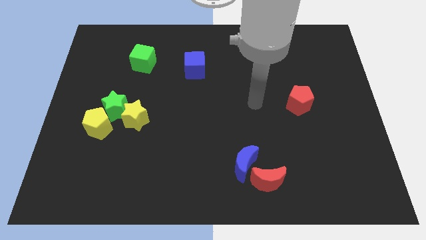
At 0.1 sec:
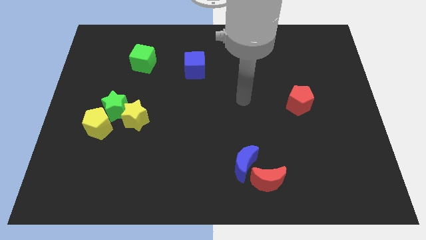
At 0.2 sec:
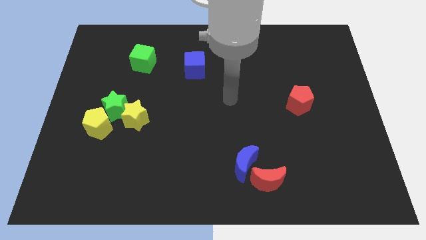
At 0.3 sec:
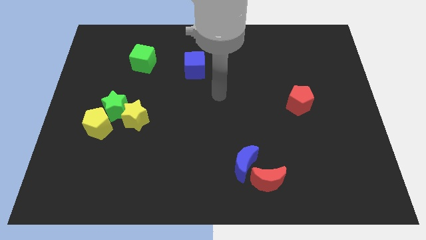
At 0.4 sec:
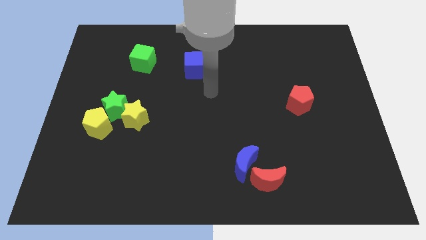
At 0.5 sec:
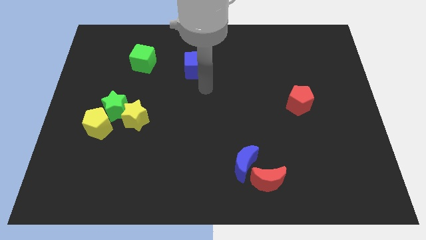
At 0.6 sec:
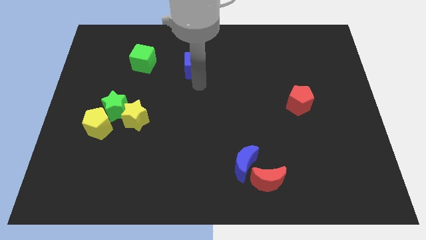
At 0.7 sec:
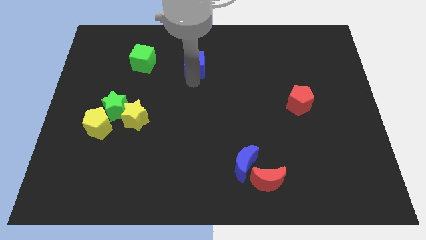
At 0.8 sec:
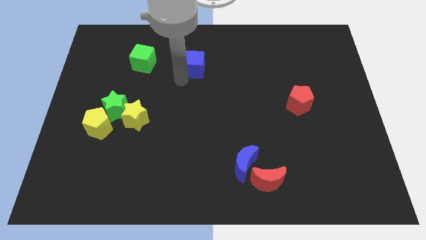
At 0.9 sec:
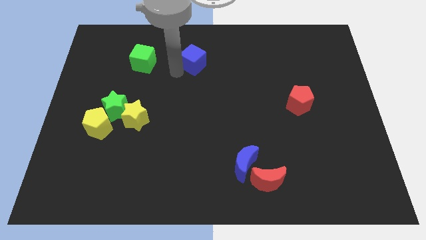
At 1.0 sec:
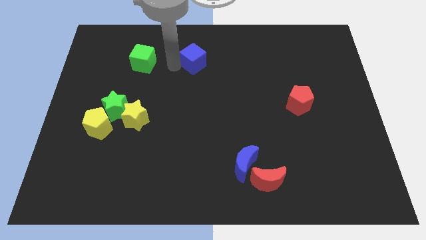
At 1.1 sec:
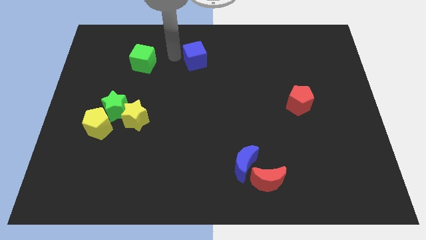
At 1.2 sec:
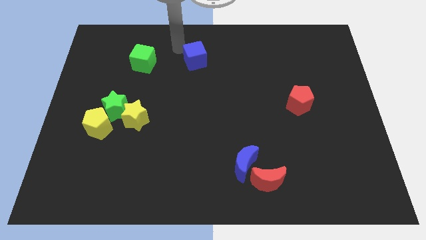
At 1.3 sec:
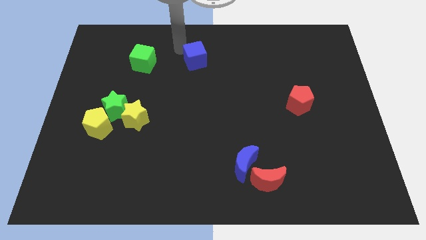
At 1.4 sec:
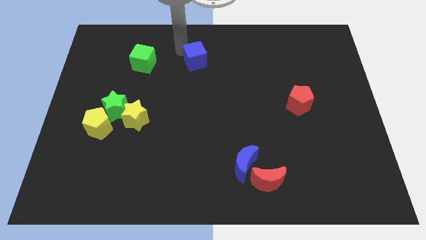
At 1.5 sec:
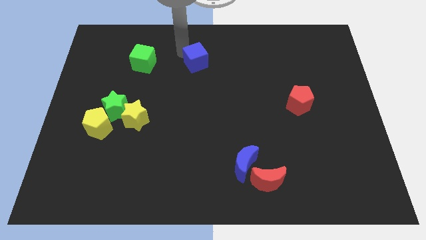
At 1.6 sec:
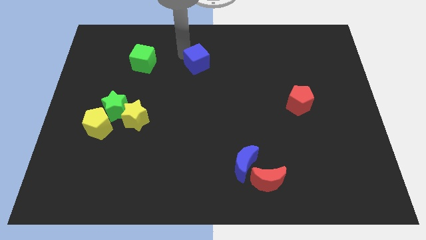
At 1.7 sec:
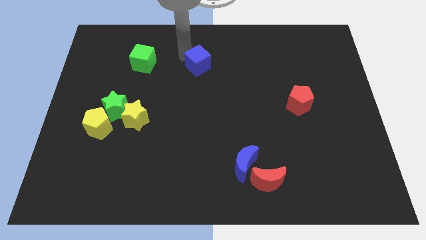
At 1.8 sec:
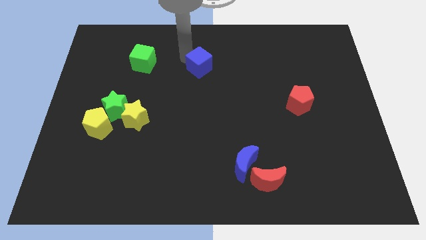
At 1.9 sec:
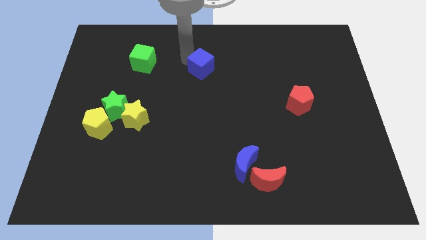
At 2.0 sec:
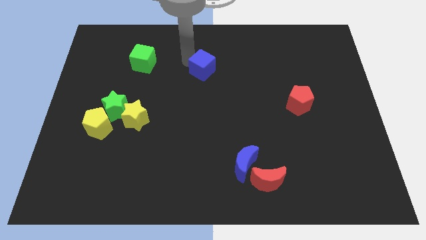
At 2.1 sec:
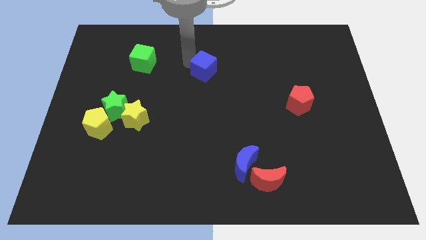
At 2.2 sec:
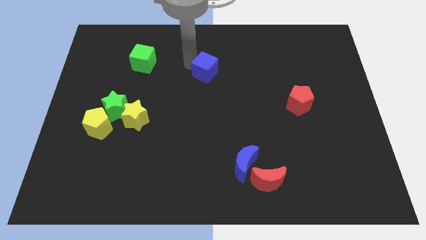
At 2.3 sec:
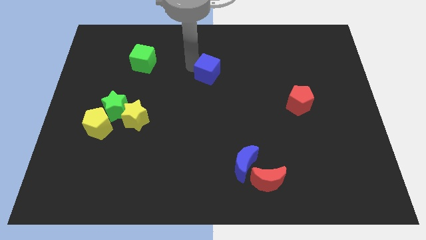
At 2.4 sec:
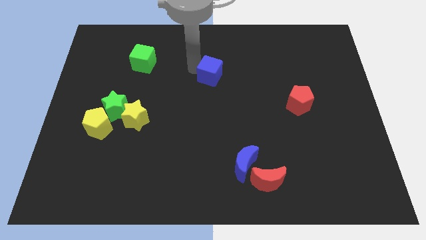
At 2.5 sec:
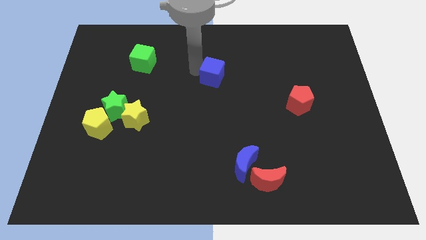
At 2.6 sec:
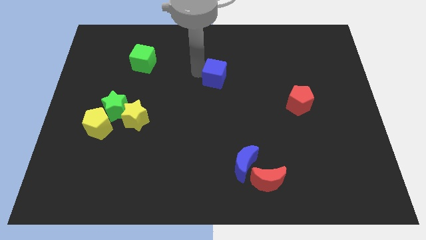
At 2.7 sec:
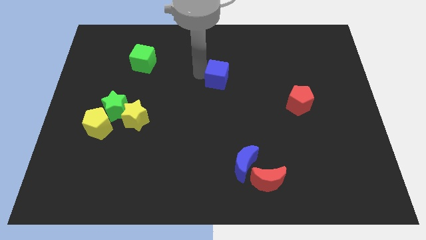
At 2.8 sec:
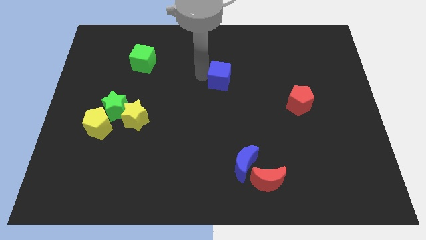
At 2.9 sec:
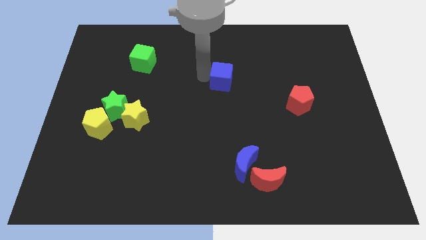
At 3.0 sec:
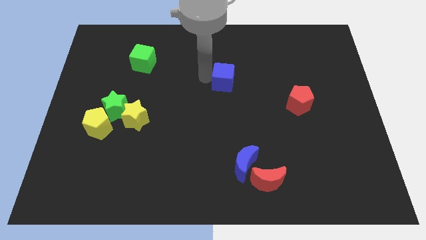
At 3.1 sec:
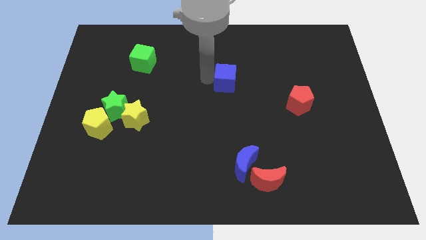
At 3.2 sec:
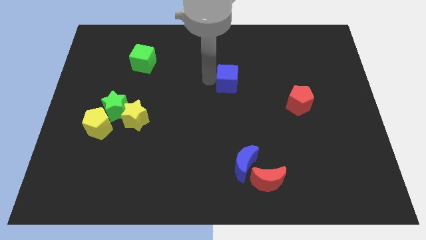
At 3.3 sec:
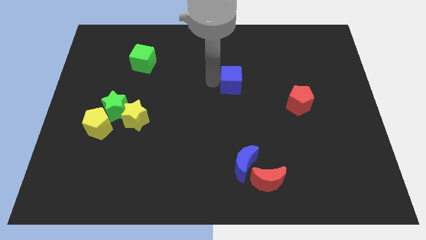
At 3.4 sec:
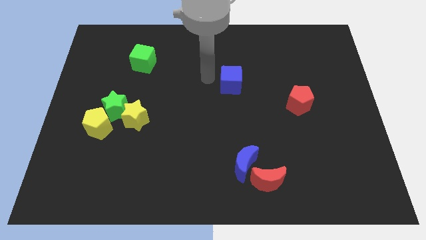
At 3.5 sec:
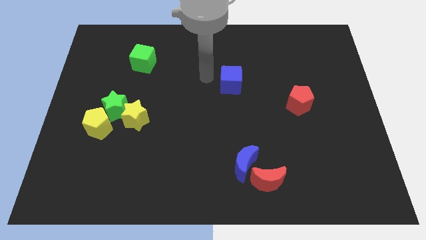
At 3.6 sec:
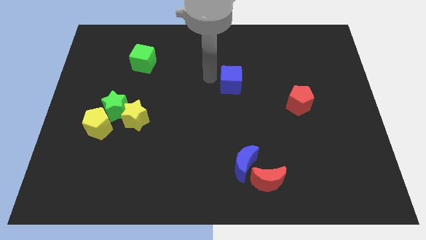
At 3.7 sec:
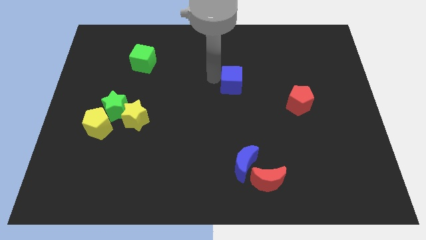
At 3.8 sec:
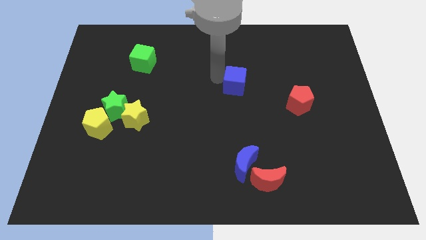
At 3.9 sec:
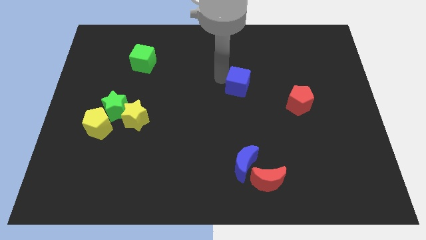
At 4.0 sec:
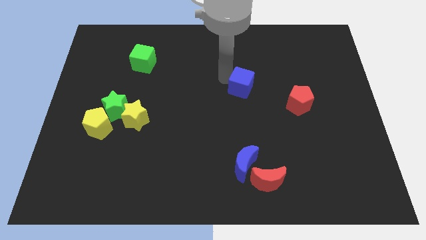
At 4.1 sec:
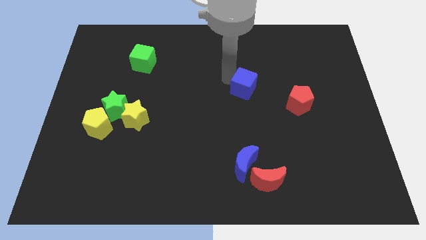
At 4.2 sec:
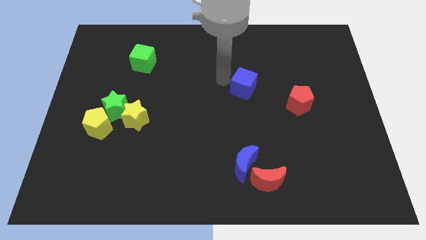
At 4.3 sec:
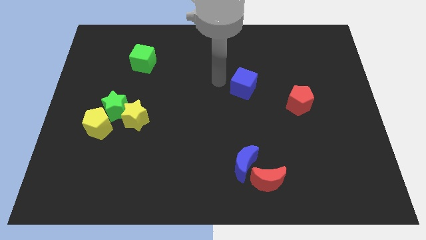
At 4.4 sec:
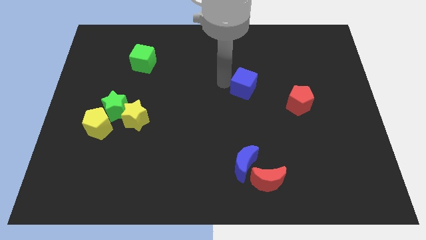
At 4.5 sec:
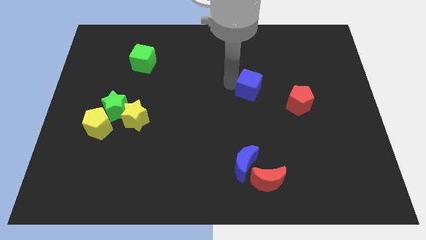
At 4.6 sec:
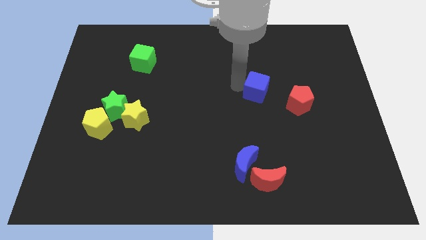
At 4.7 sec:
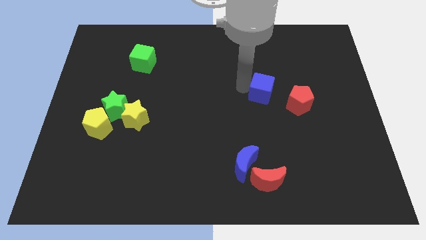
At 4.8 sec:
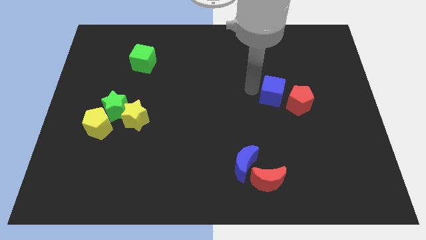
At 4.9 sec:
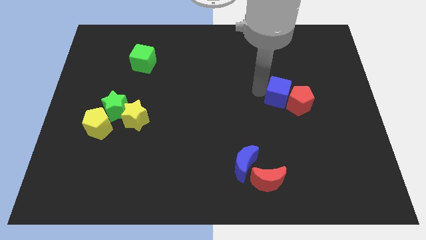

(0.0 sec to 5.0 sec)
slide the blue cube next to the red pentagon

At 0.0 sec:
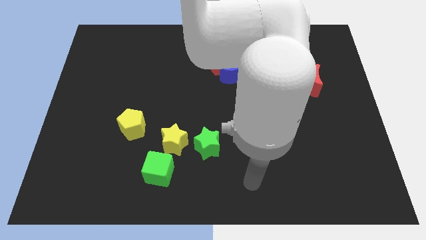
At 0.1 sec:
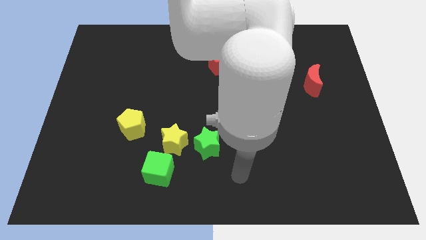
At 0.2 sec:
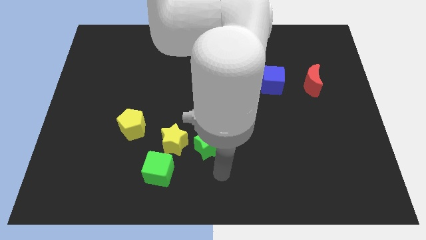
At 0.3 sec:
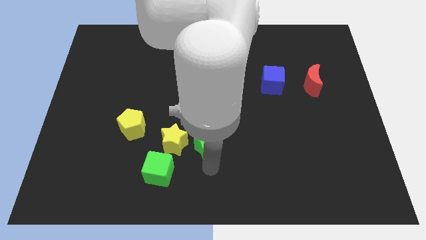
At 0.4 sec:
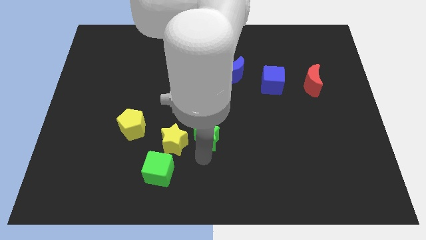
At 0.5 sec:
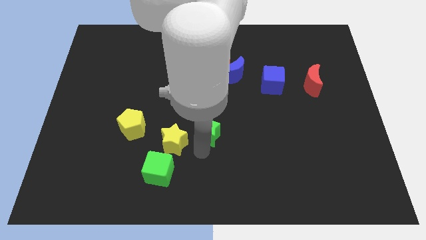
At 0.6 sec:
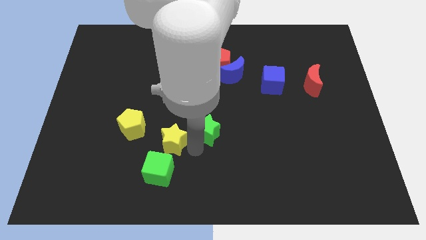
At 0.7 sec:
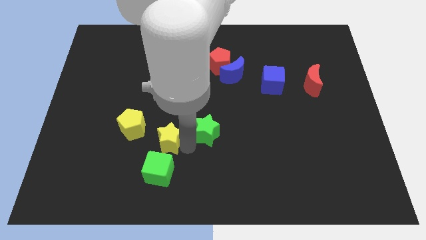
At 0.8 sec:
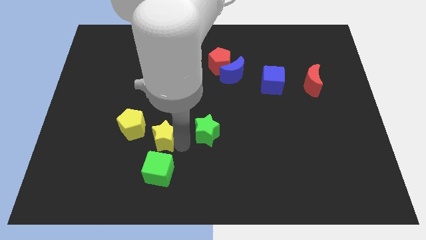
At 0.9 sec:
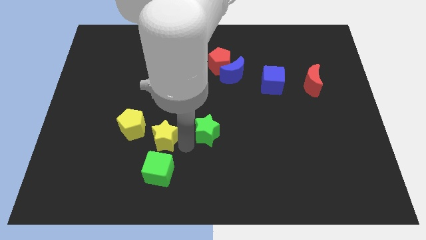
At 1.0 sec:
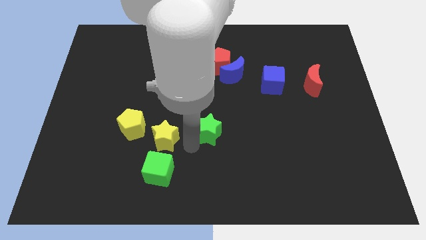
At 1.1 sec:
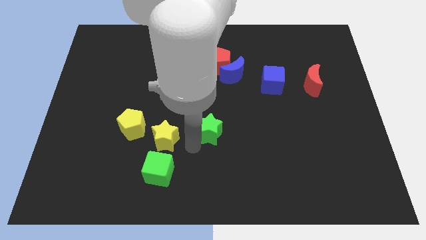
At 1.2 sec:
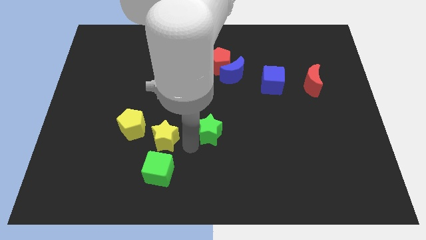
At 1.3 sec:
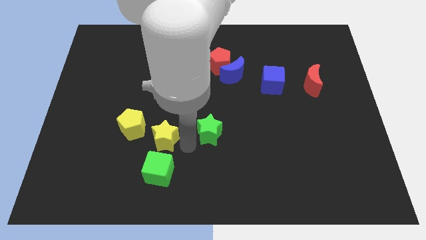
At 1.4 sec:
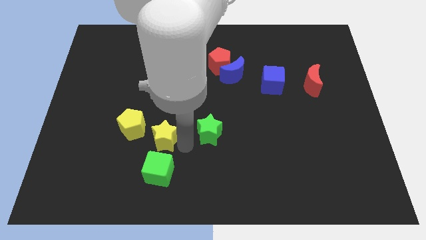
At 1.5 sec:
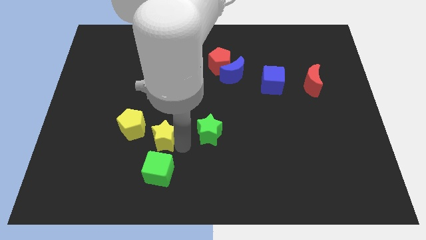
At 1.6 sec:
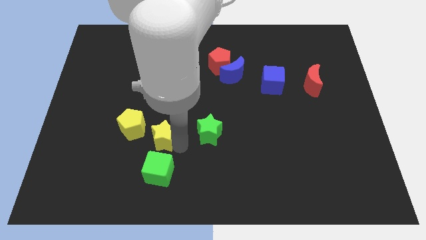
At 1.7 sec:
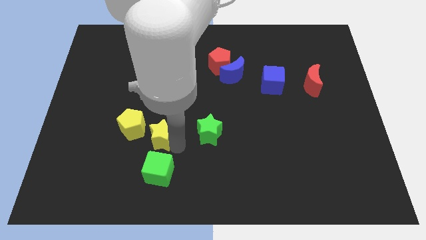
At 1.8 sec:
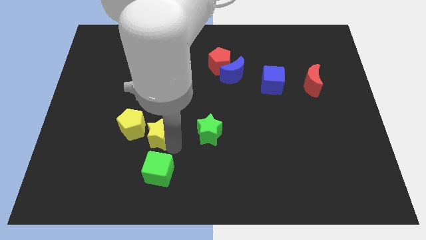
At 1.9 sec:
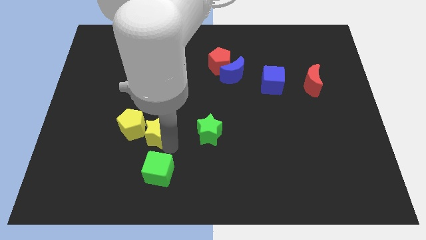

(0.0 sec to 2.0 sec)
slide the yellow star close to the yellow pentagon
